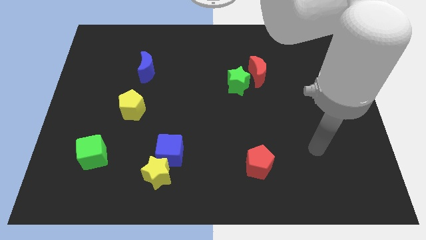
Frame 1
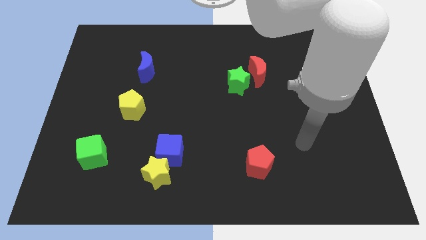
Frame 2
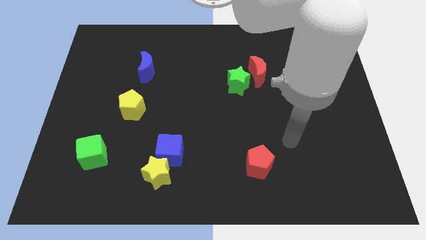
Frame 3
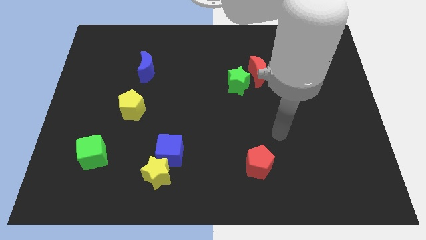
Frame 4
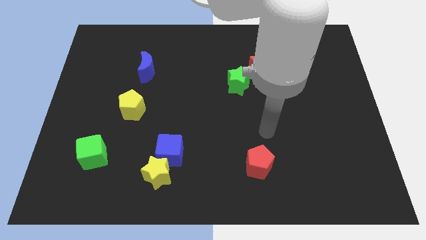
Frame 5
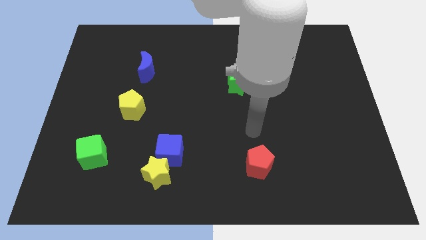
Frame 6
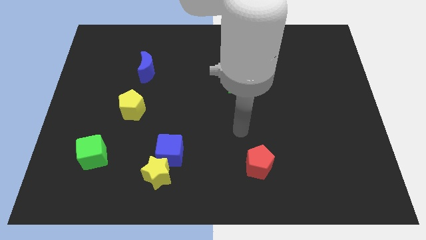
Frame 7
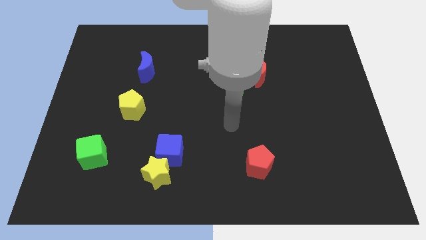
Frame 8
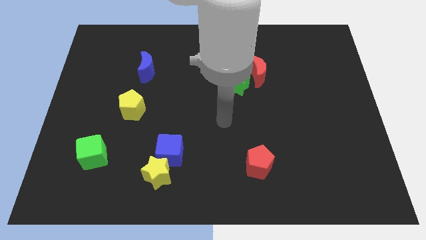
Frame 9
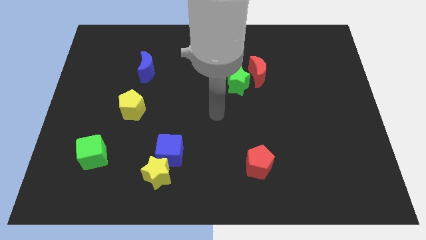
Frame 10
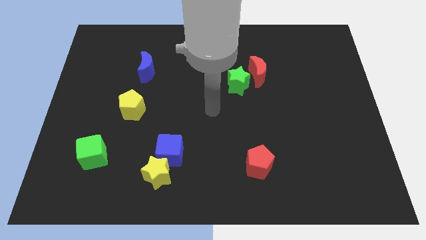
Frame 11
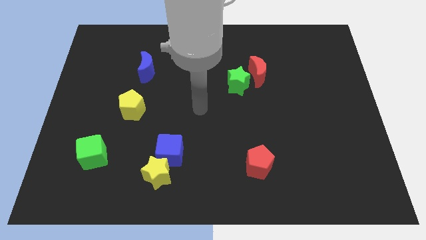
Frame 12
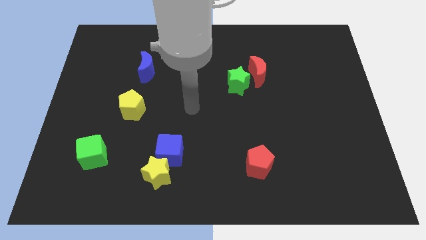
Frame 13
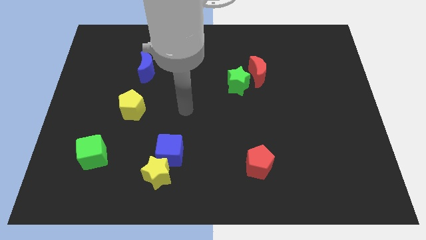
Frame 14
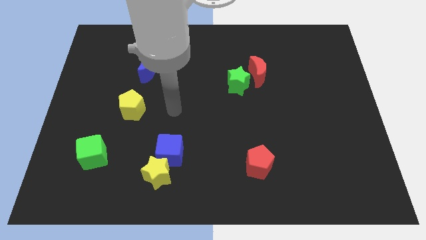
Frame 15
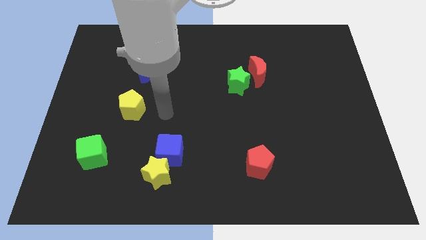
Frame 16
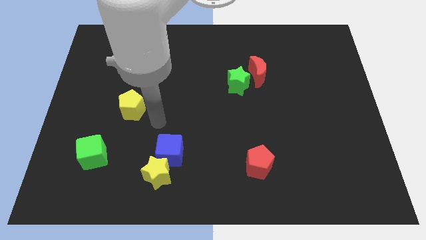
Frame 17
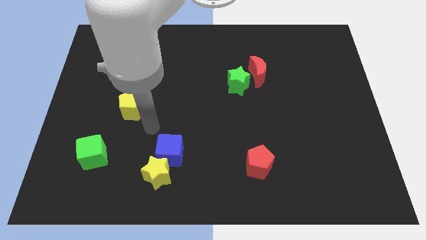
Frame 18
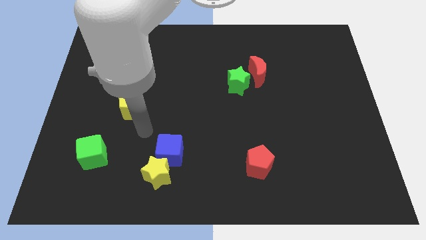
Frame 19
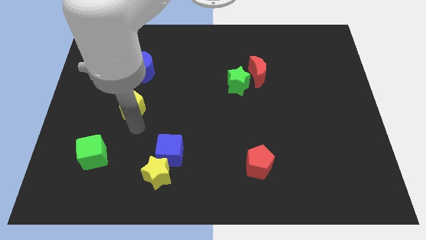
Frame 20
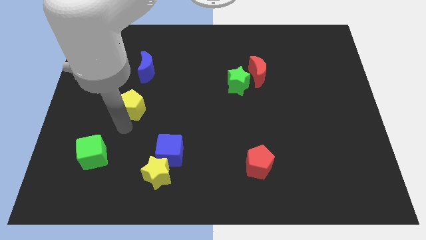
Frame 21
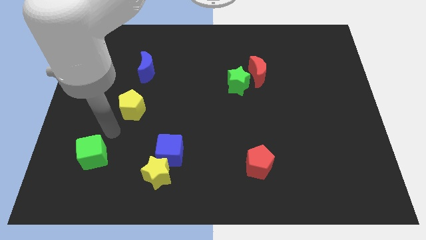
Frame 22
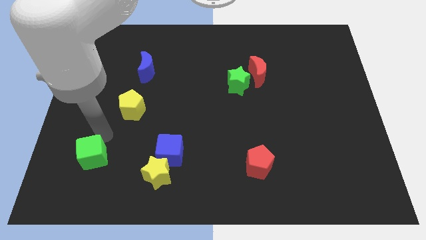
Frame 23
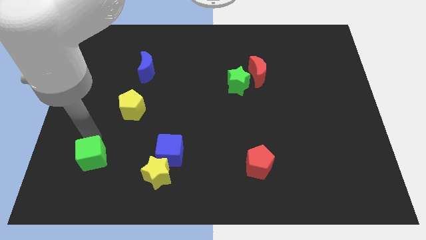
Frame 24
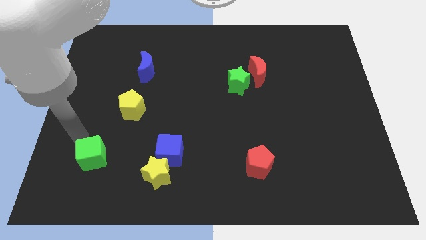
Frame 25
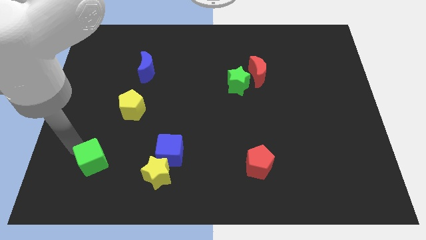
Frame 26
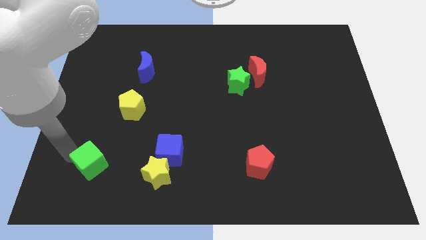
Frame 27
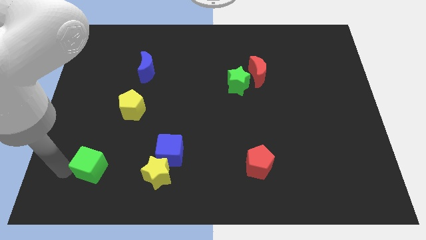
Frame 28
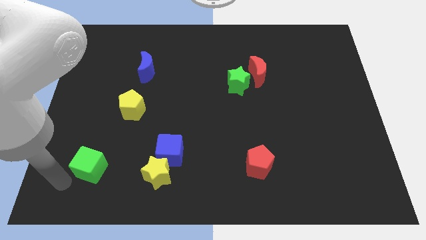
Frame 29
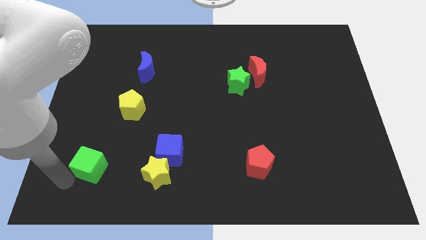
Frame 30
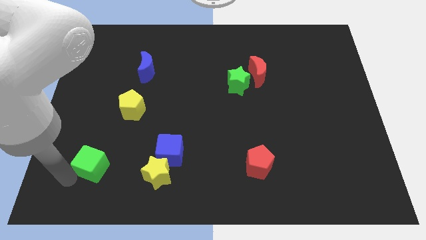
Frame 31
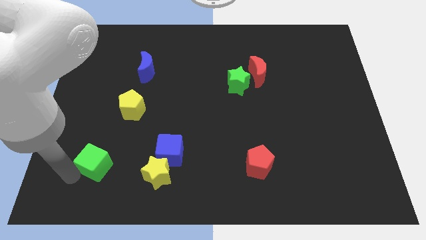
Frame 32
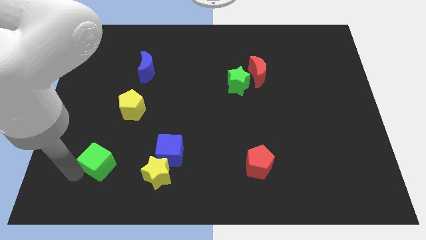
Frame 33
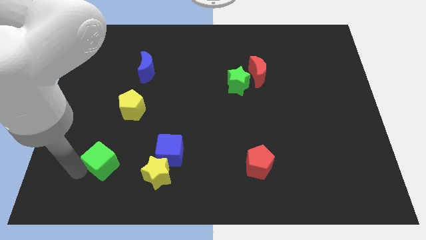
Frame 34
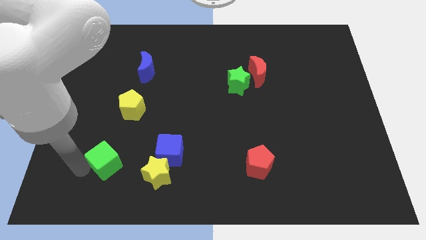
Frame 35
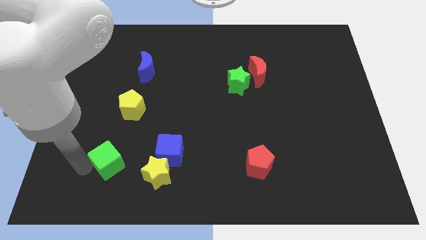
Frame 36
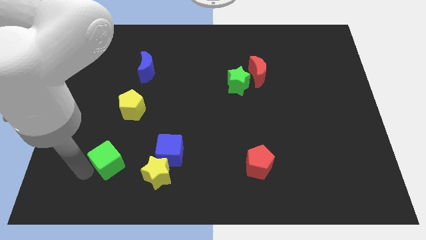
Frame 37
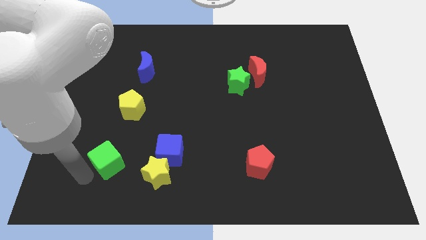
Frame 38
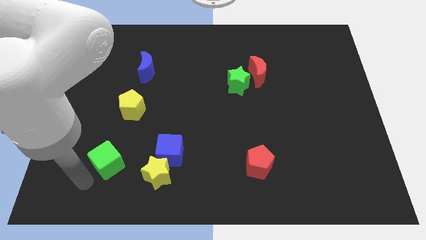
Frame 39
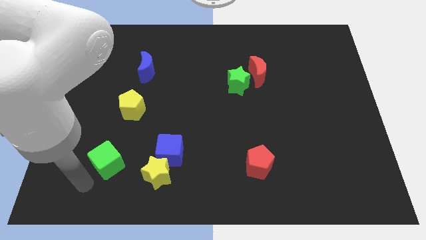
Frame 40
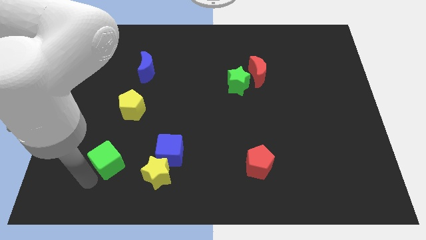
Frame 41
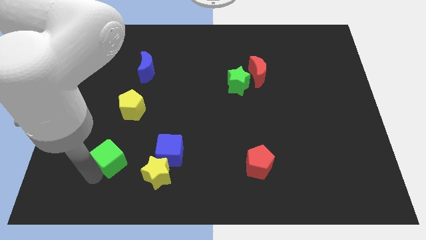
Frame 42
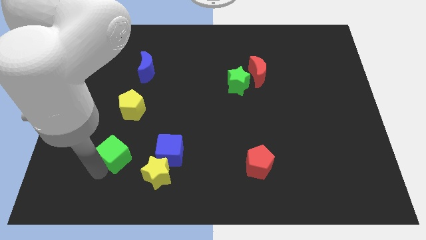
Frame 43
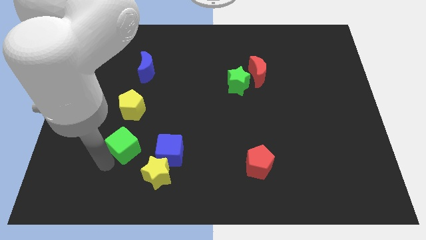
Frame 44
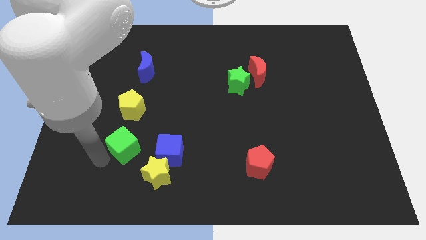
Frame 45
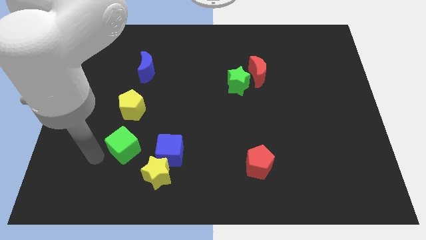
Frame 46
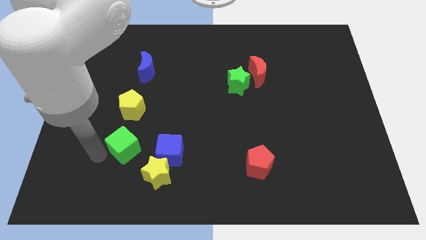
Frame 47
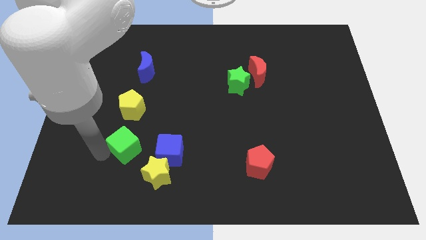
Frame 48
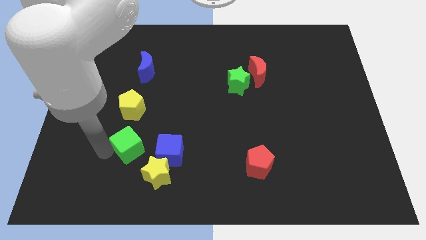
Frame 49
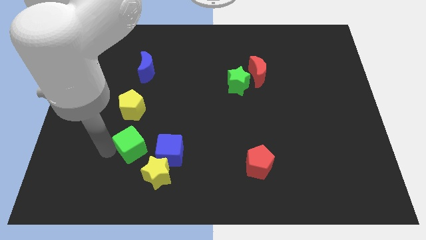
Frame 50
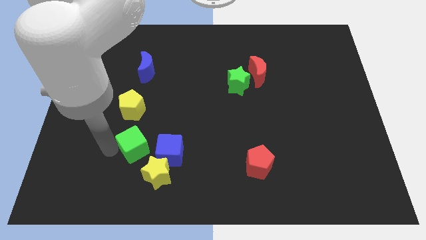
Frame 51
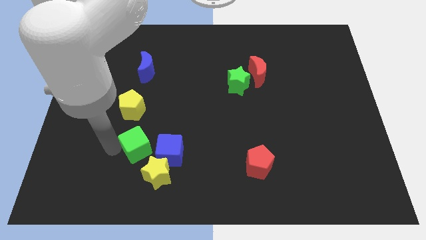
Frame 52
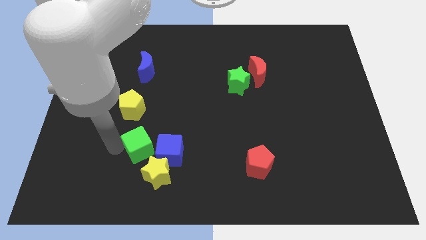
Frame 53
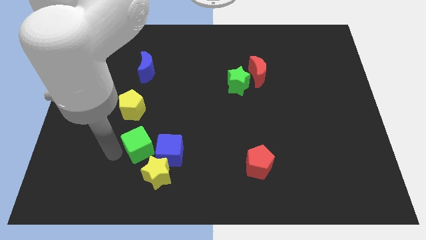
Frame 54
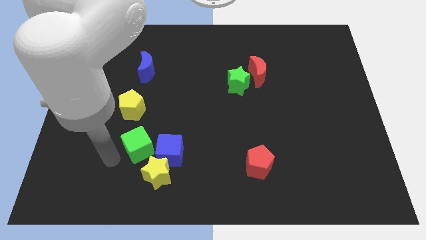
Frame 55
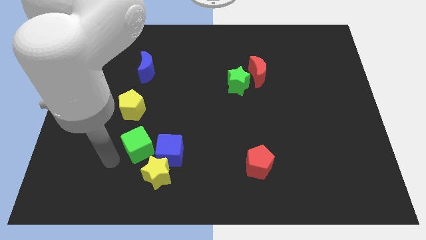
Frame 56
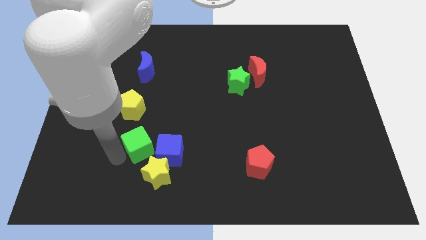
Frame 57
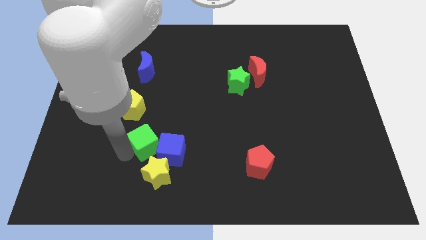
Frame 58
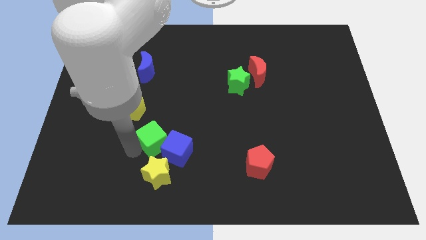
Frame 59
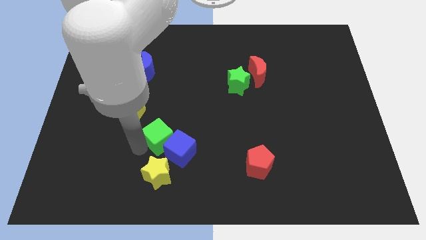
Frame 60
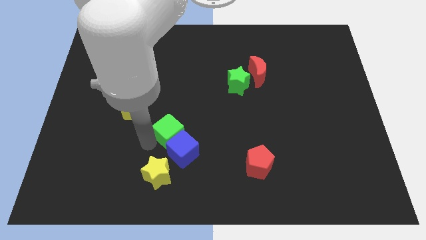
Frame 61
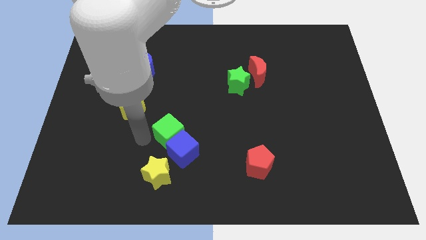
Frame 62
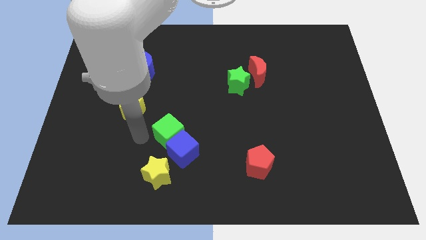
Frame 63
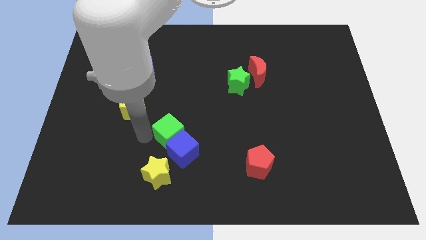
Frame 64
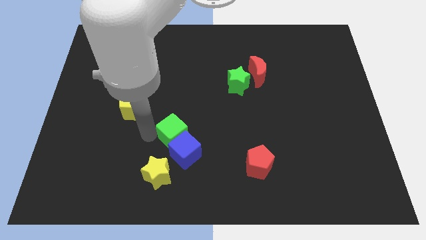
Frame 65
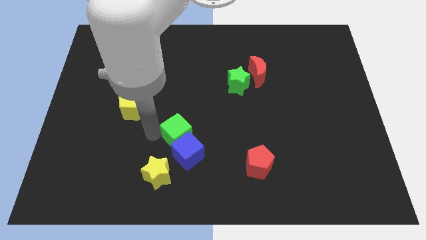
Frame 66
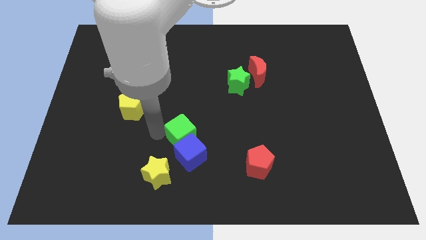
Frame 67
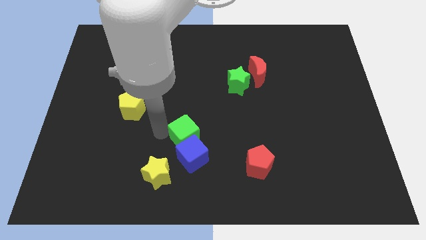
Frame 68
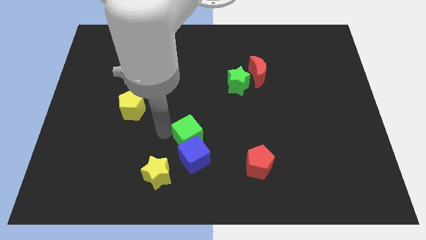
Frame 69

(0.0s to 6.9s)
push the green cube to the top right of the blue cube
